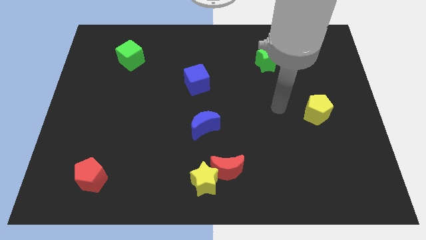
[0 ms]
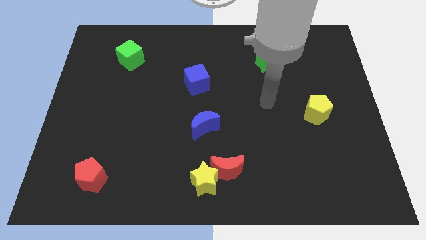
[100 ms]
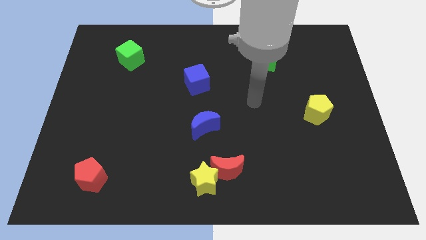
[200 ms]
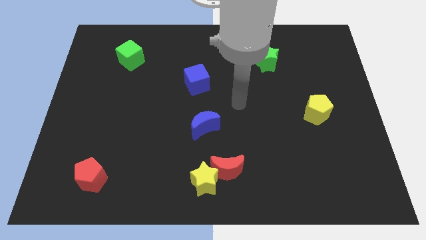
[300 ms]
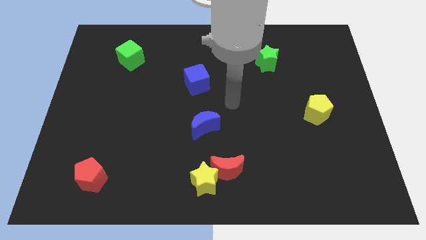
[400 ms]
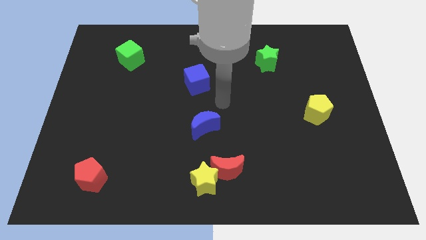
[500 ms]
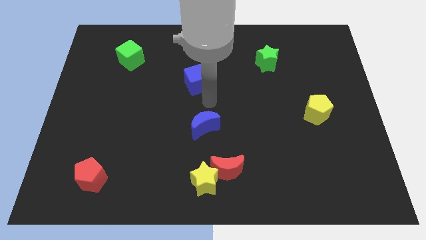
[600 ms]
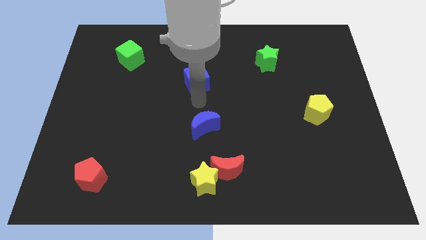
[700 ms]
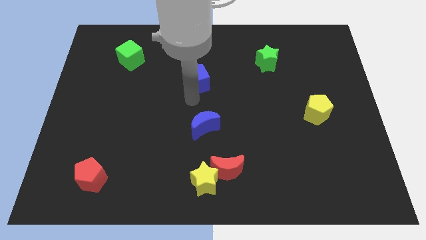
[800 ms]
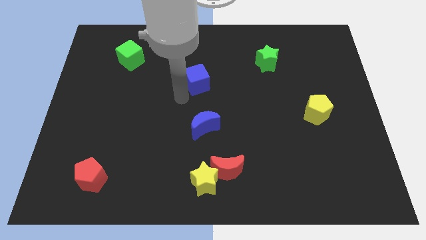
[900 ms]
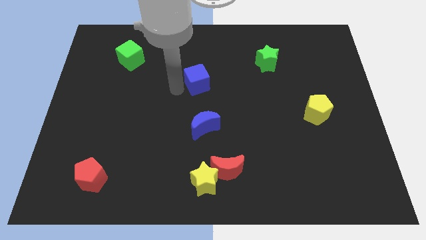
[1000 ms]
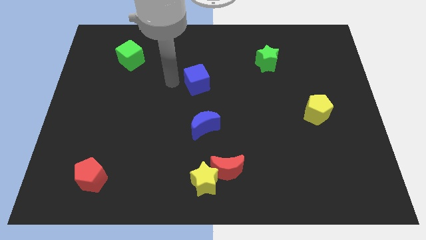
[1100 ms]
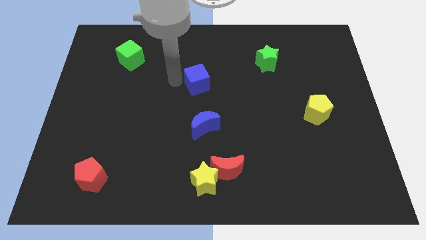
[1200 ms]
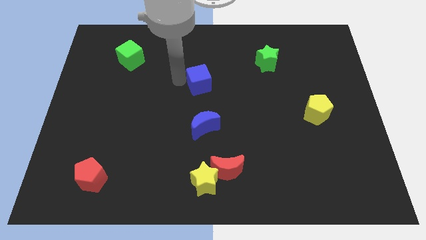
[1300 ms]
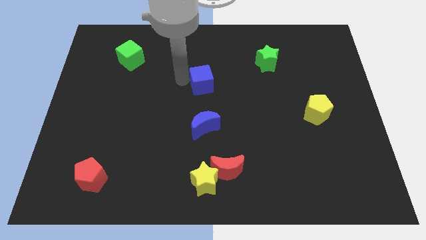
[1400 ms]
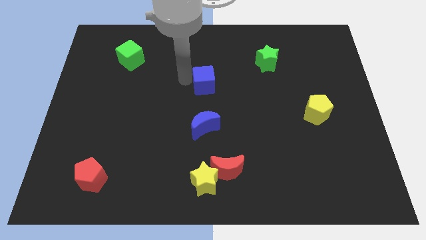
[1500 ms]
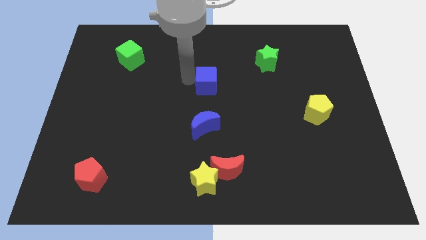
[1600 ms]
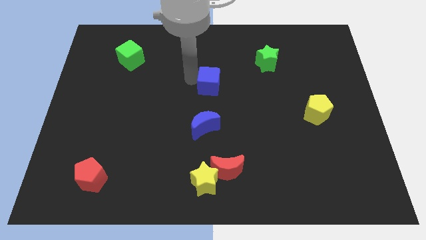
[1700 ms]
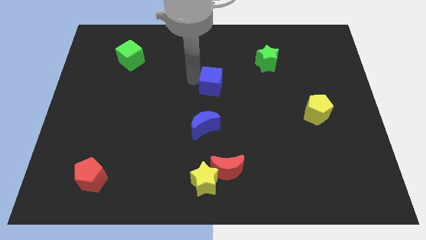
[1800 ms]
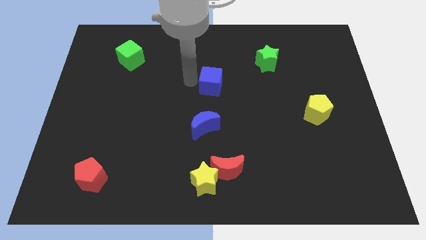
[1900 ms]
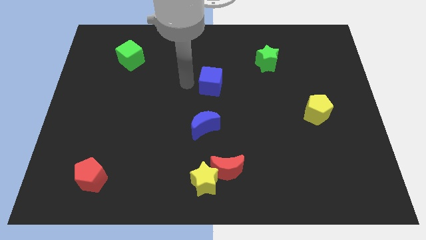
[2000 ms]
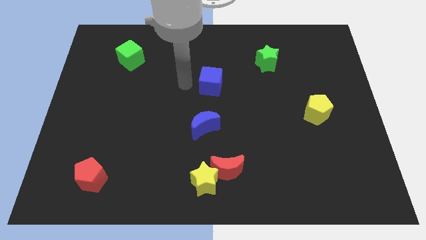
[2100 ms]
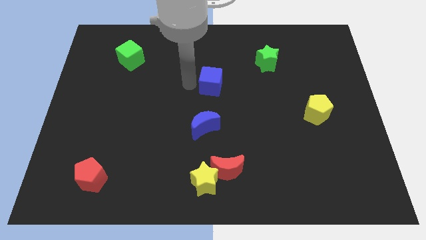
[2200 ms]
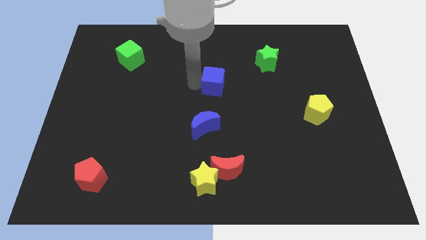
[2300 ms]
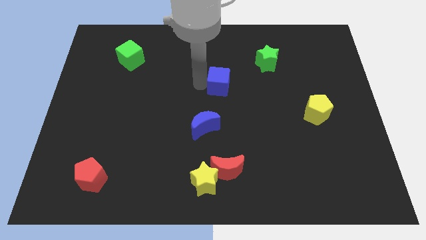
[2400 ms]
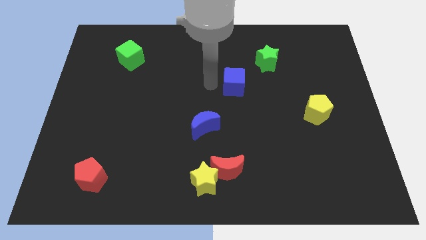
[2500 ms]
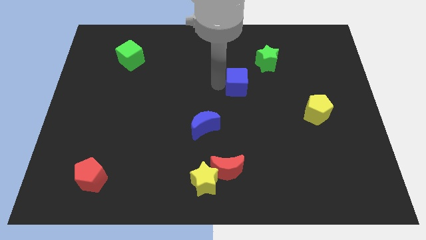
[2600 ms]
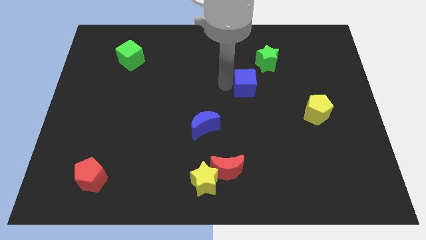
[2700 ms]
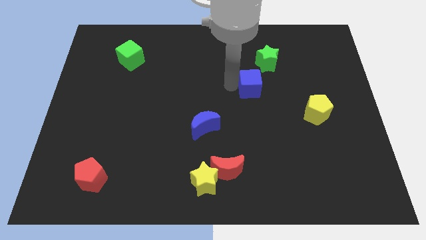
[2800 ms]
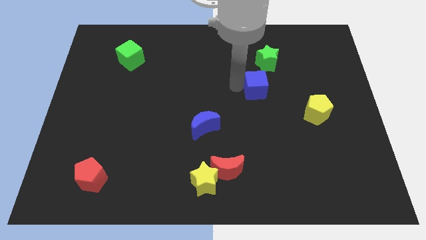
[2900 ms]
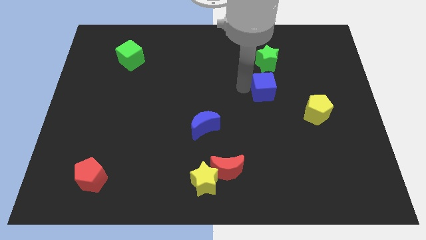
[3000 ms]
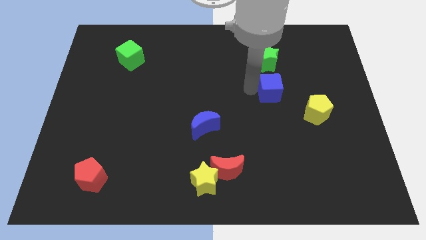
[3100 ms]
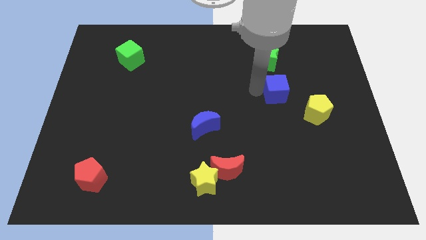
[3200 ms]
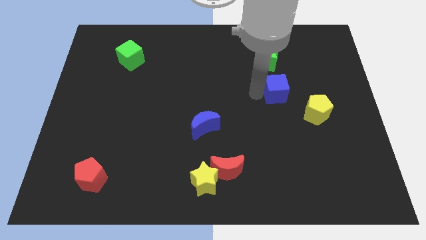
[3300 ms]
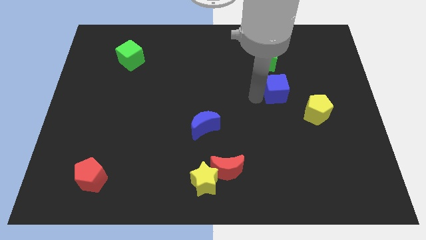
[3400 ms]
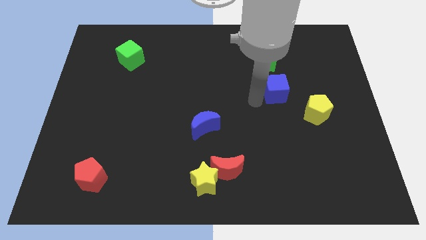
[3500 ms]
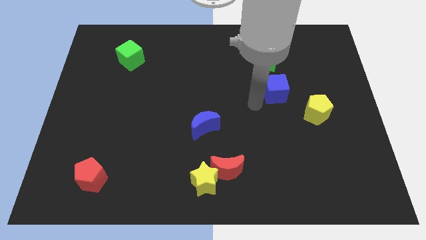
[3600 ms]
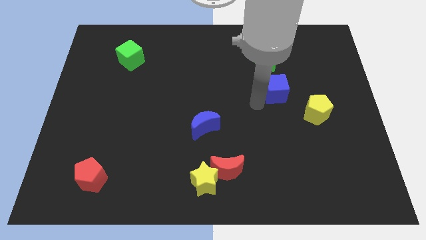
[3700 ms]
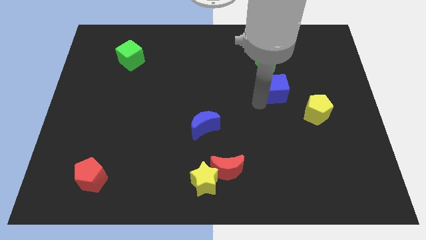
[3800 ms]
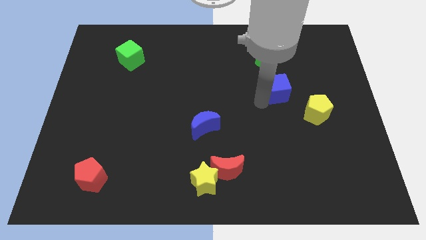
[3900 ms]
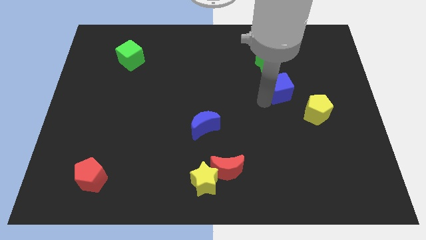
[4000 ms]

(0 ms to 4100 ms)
push the blue cube to the right

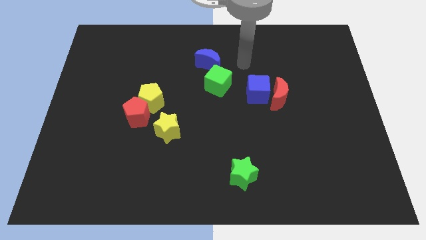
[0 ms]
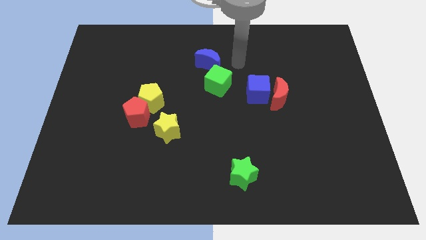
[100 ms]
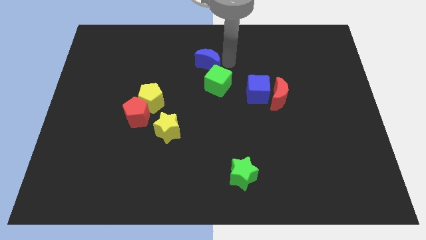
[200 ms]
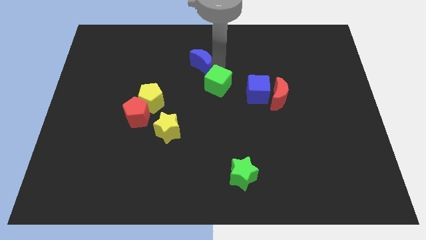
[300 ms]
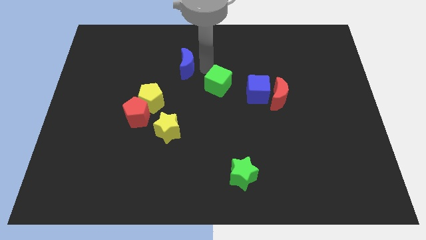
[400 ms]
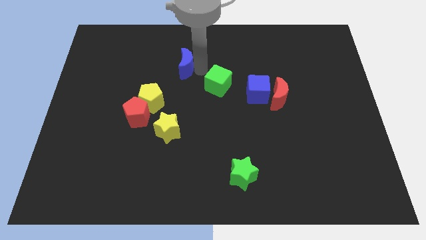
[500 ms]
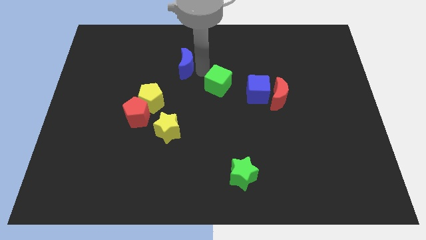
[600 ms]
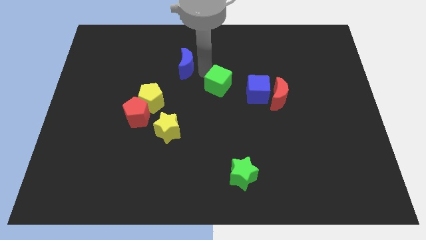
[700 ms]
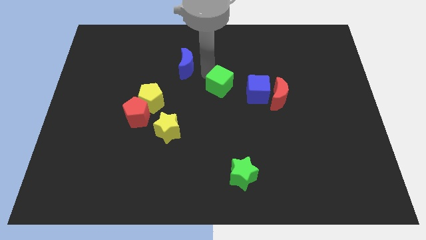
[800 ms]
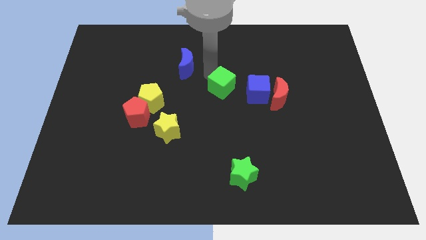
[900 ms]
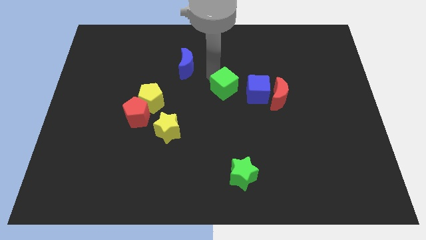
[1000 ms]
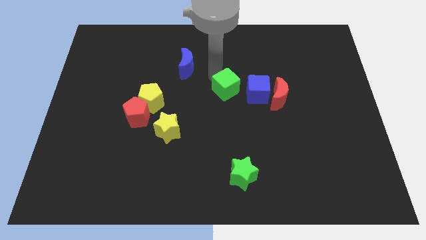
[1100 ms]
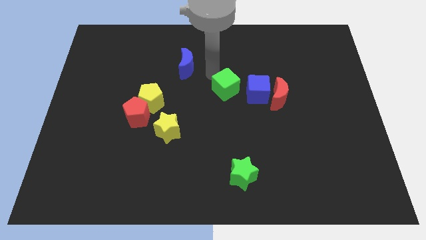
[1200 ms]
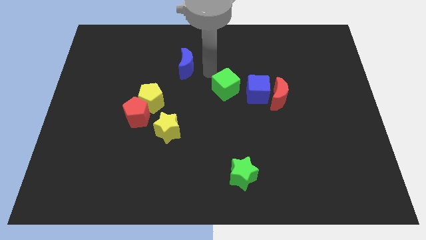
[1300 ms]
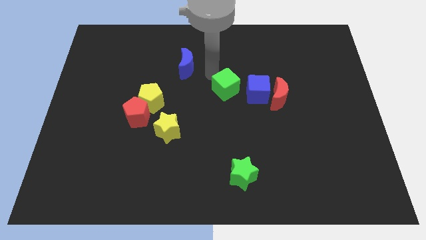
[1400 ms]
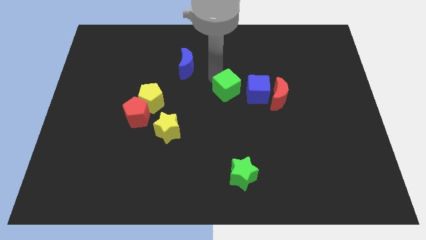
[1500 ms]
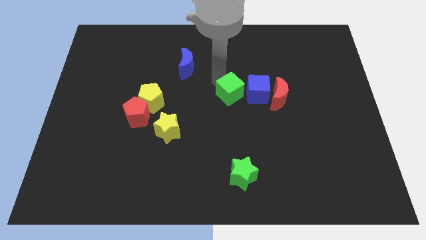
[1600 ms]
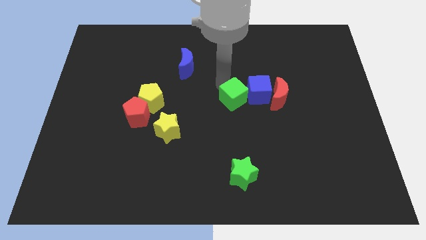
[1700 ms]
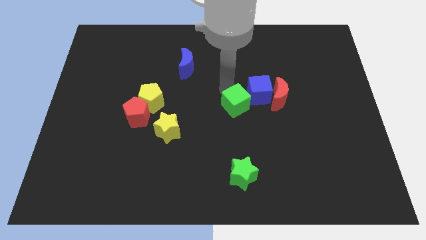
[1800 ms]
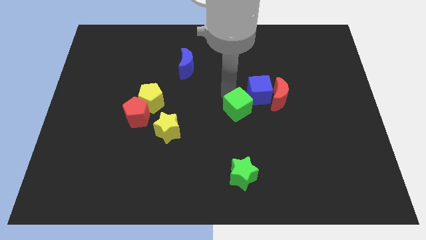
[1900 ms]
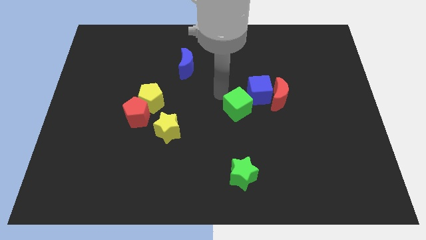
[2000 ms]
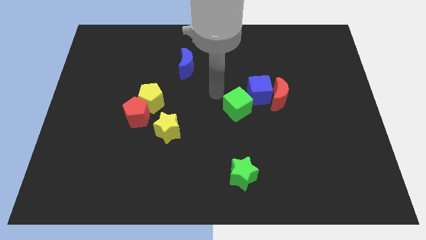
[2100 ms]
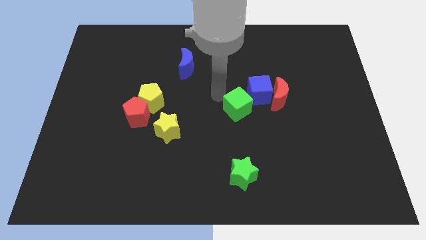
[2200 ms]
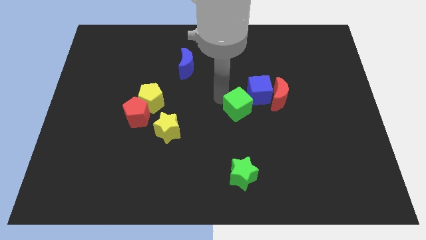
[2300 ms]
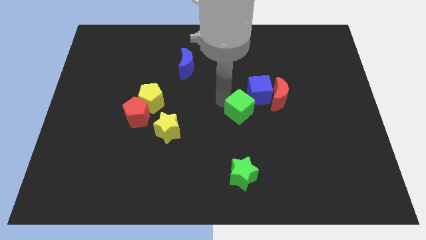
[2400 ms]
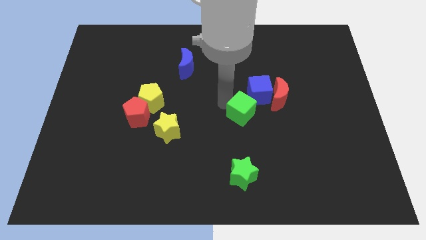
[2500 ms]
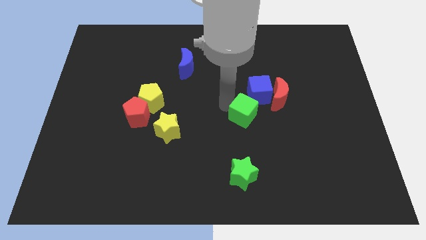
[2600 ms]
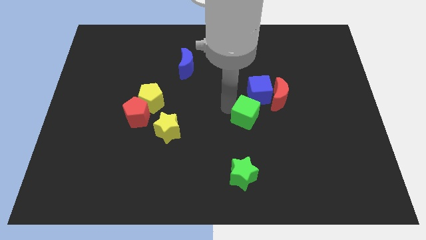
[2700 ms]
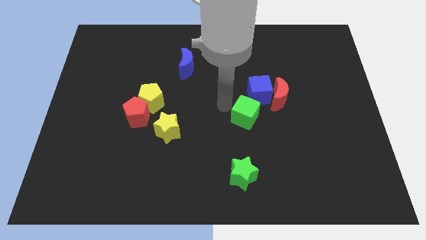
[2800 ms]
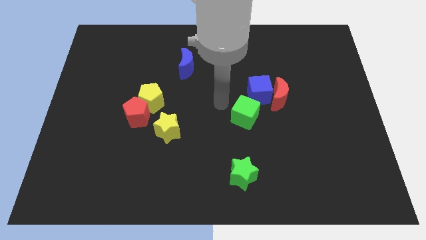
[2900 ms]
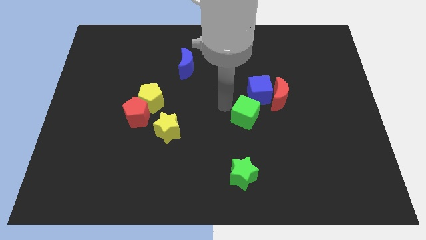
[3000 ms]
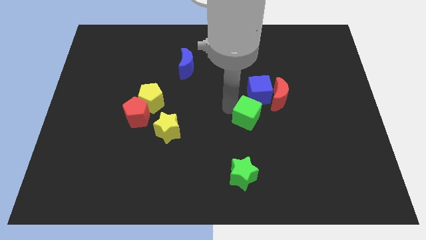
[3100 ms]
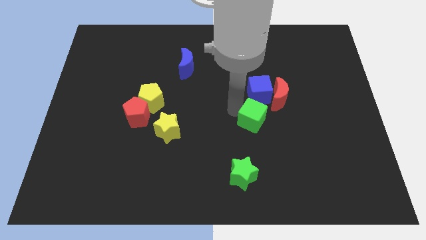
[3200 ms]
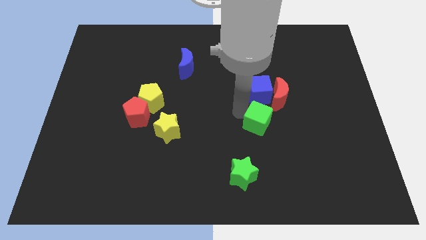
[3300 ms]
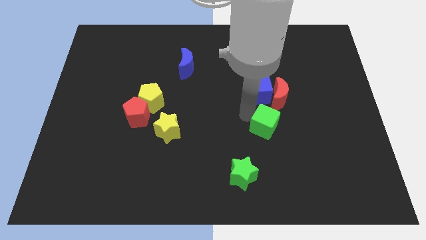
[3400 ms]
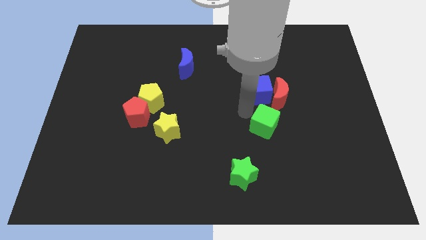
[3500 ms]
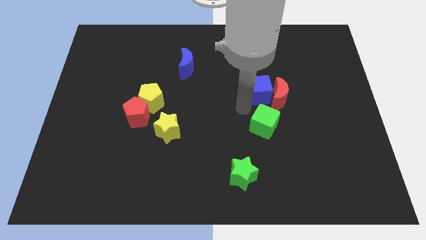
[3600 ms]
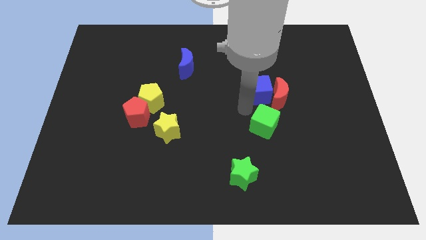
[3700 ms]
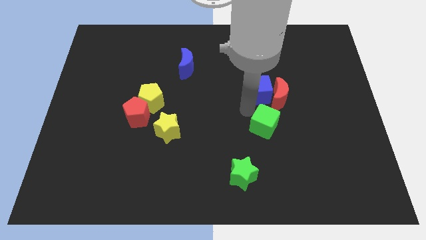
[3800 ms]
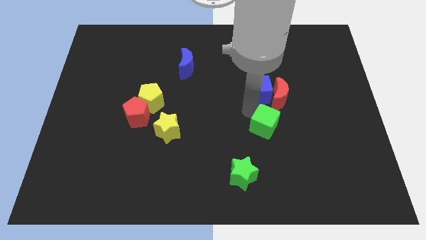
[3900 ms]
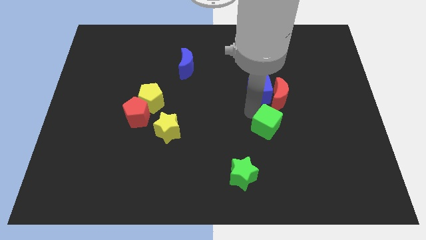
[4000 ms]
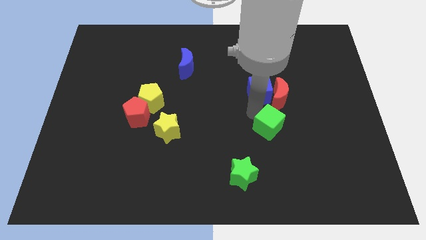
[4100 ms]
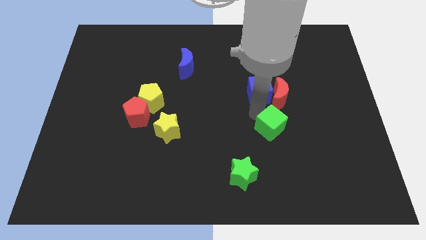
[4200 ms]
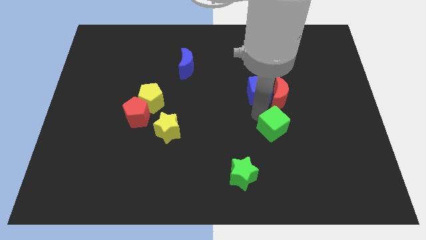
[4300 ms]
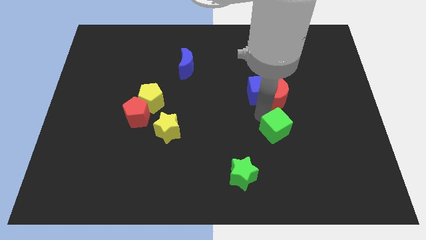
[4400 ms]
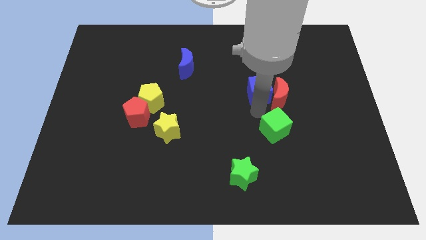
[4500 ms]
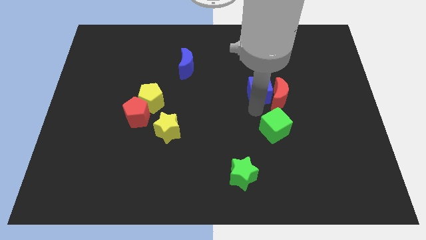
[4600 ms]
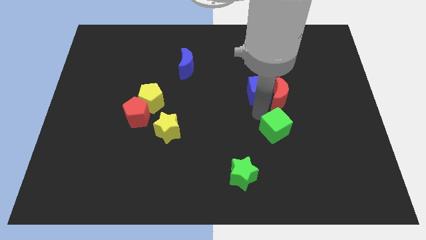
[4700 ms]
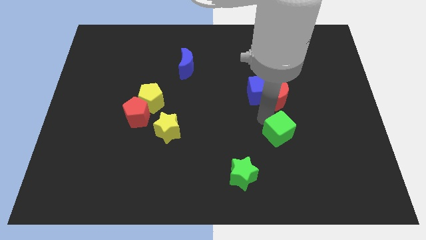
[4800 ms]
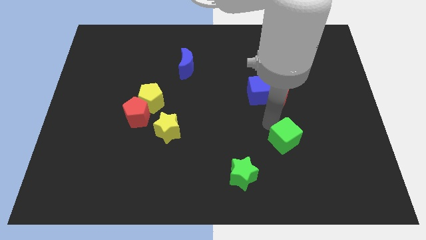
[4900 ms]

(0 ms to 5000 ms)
slide the green cube down and right
